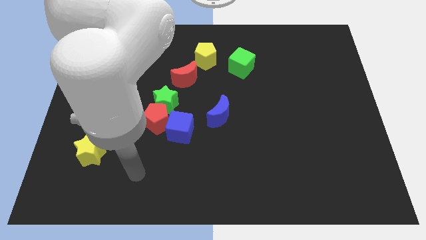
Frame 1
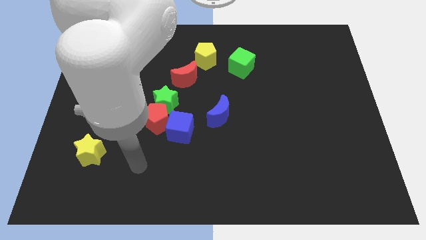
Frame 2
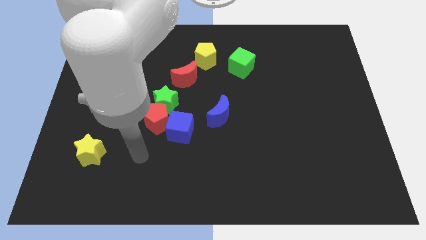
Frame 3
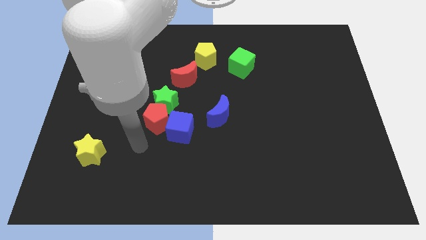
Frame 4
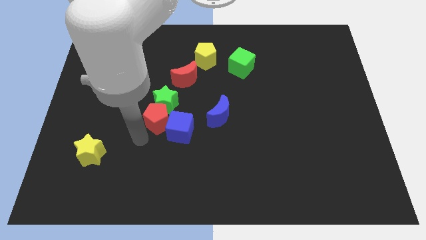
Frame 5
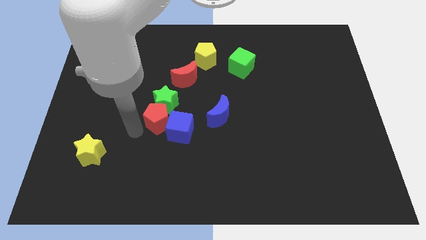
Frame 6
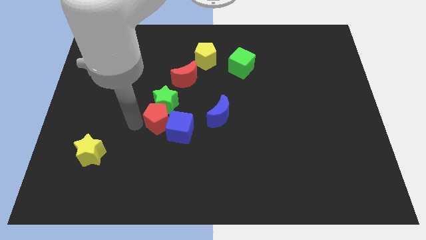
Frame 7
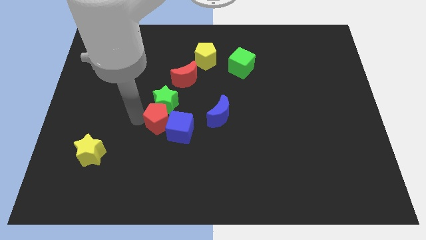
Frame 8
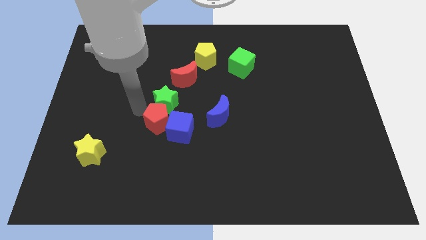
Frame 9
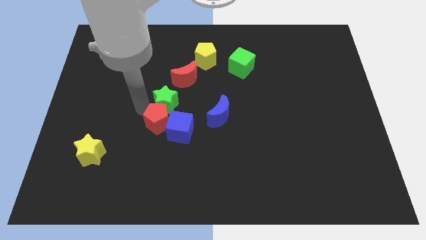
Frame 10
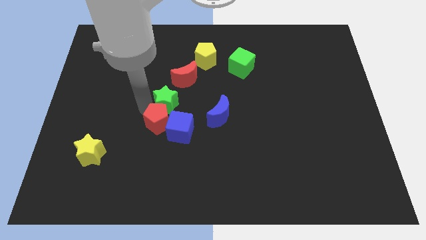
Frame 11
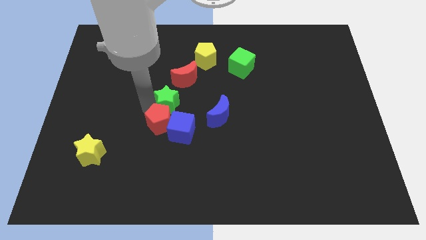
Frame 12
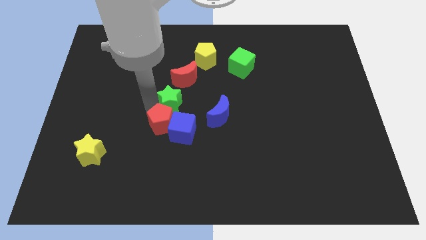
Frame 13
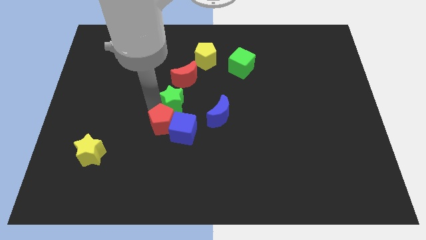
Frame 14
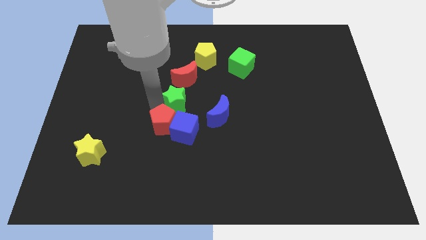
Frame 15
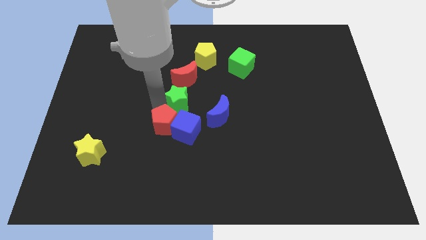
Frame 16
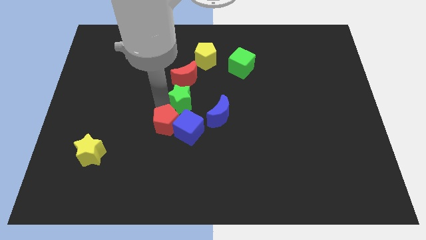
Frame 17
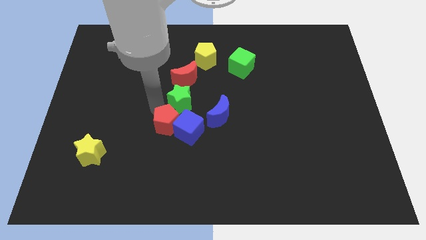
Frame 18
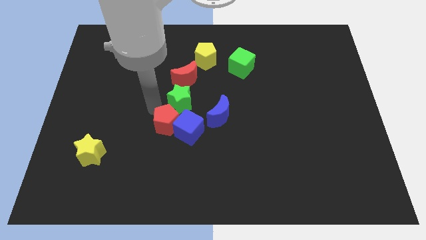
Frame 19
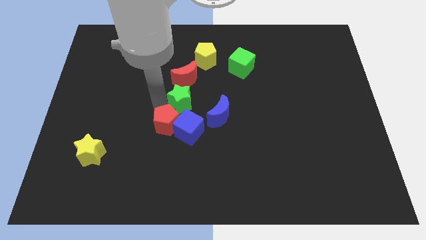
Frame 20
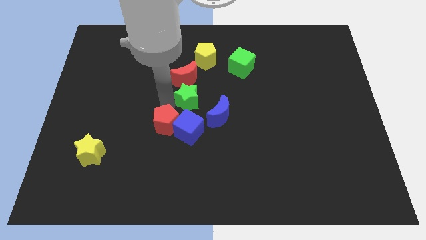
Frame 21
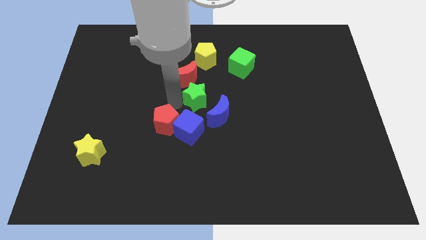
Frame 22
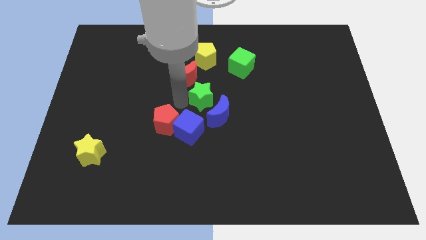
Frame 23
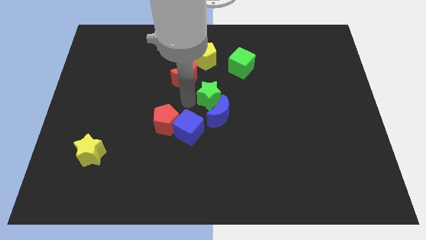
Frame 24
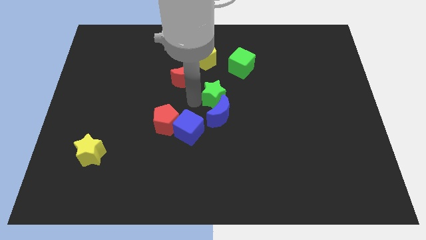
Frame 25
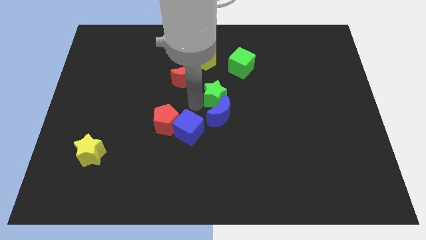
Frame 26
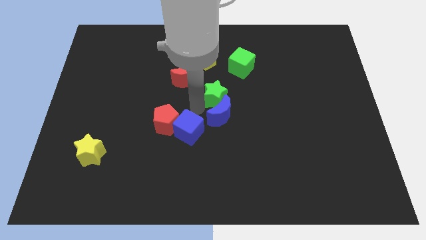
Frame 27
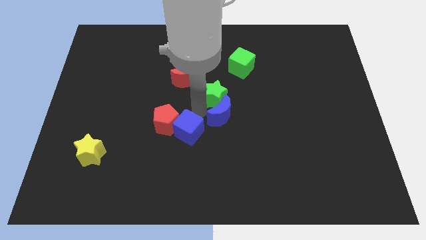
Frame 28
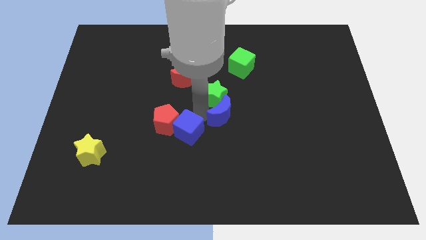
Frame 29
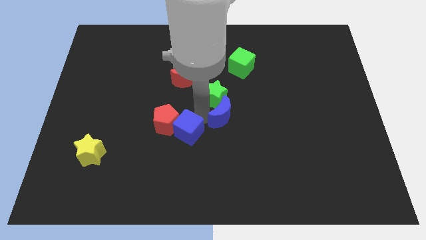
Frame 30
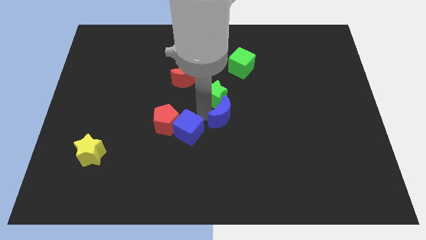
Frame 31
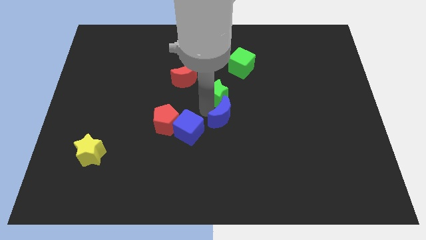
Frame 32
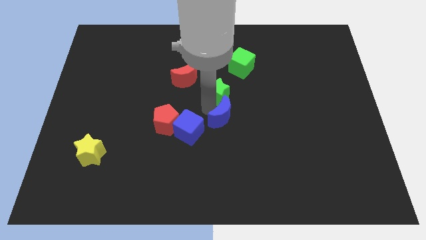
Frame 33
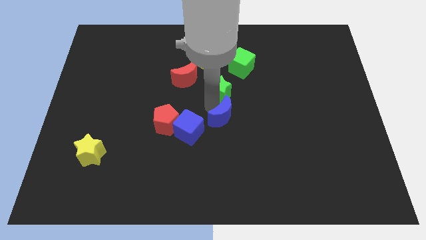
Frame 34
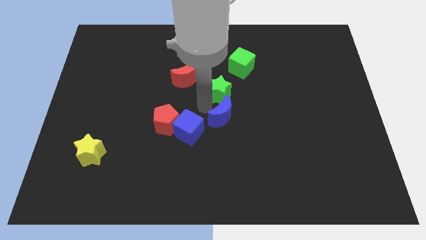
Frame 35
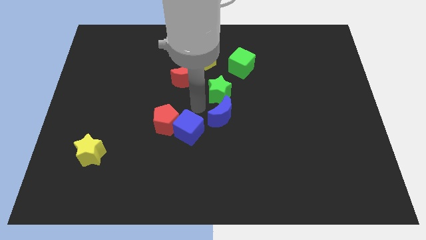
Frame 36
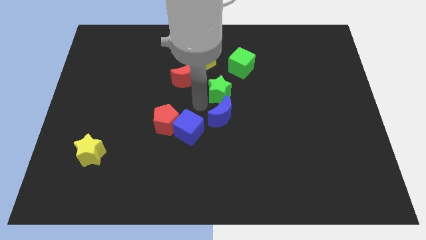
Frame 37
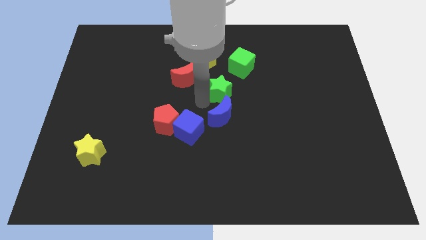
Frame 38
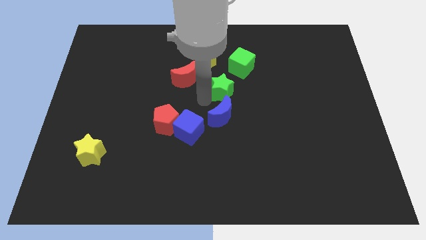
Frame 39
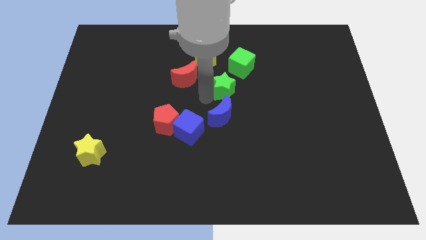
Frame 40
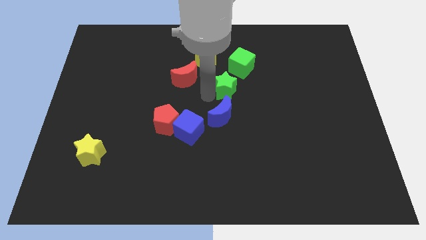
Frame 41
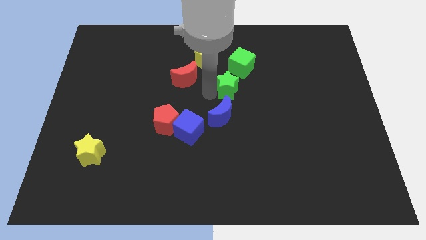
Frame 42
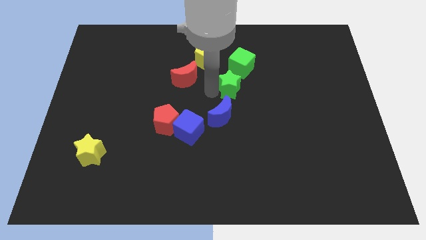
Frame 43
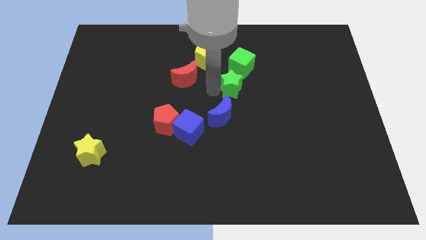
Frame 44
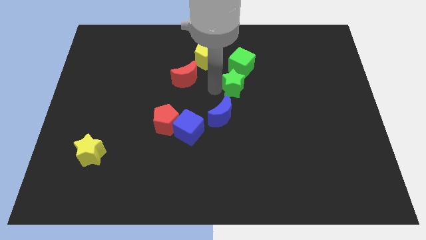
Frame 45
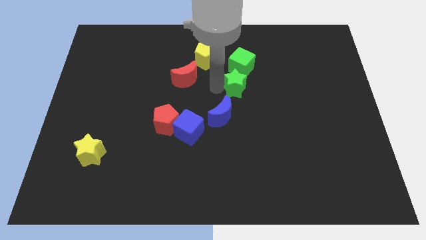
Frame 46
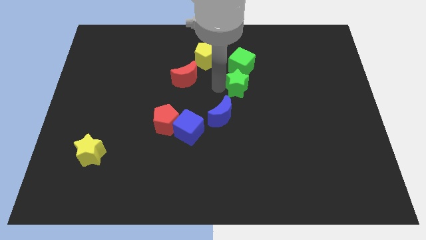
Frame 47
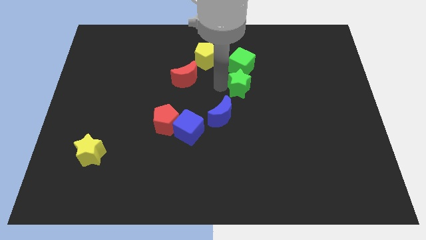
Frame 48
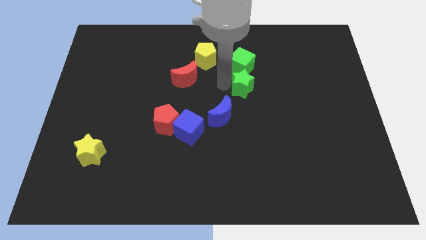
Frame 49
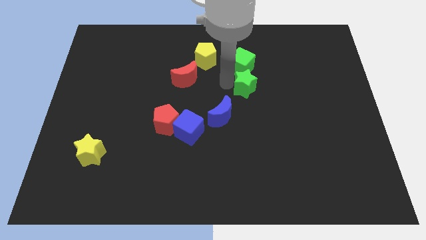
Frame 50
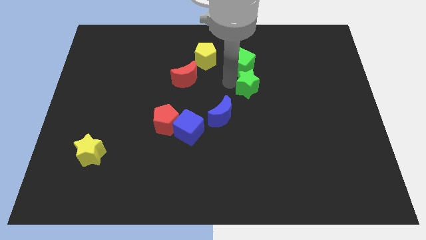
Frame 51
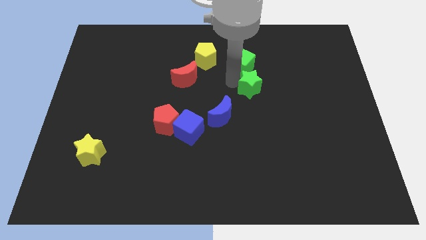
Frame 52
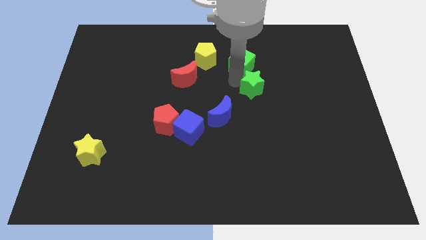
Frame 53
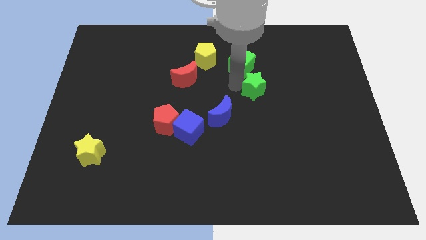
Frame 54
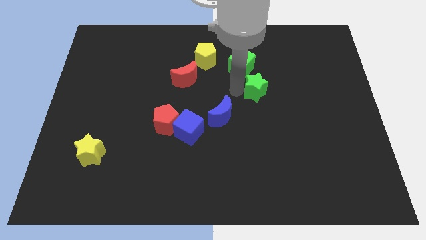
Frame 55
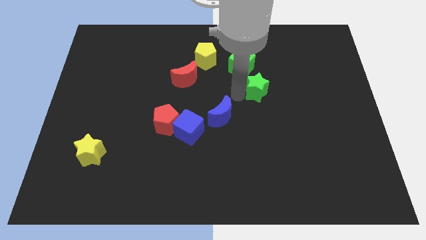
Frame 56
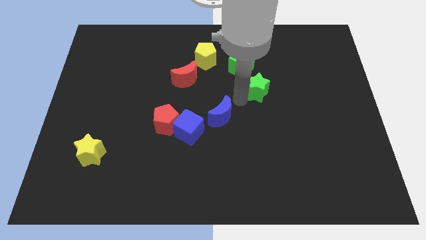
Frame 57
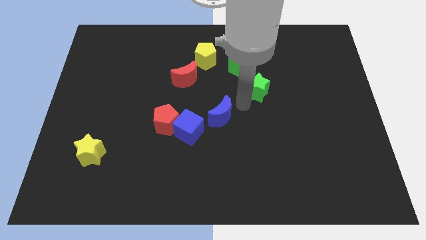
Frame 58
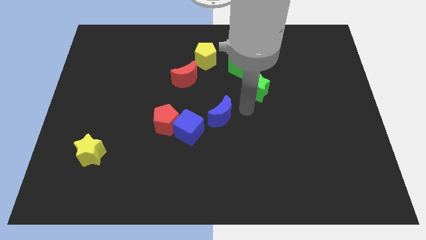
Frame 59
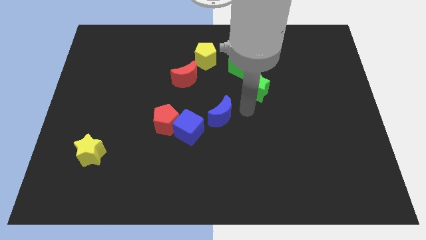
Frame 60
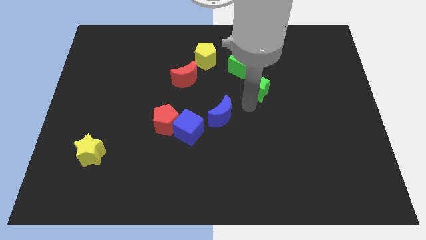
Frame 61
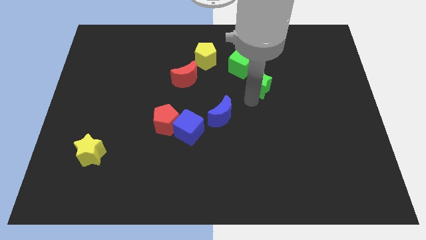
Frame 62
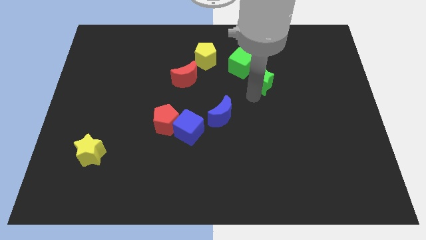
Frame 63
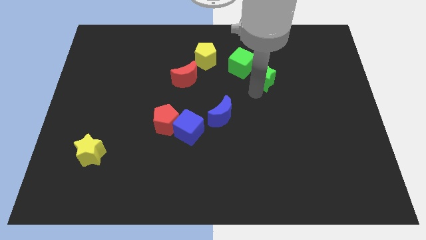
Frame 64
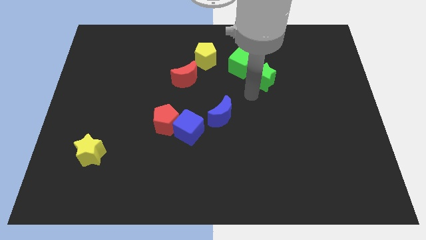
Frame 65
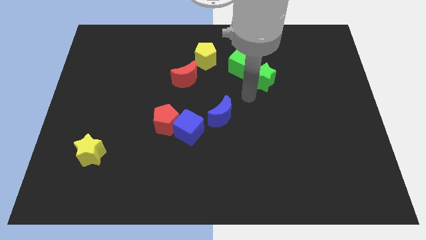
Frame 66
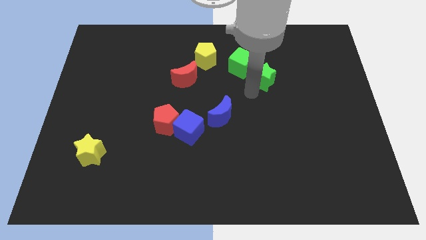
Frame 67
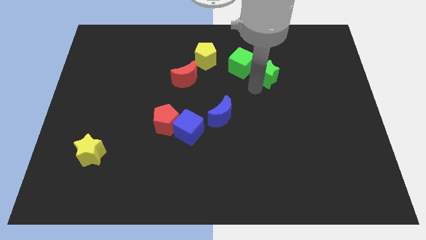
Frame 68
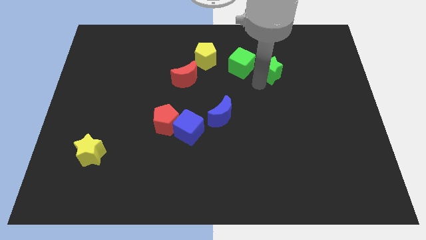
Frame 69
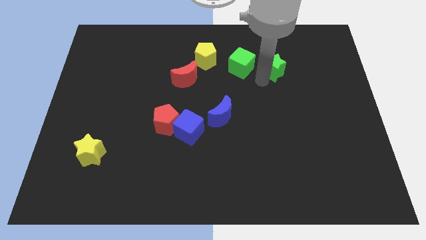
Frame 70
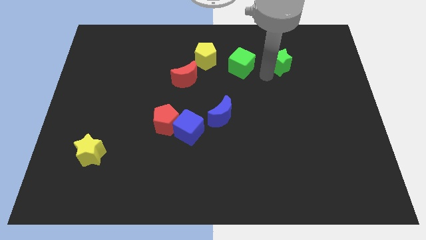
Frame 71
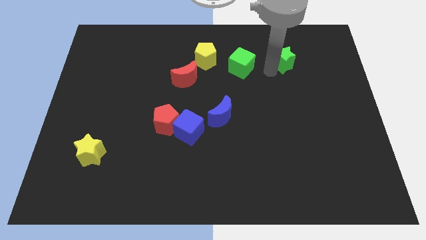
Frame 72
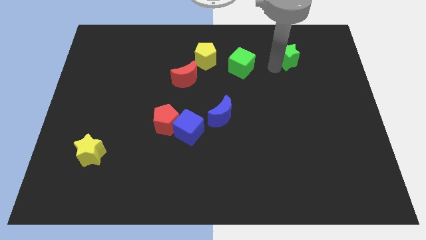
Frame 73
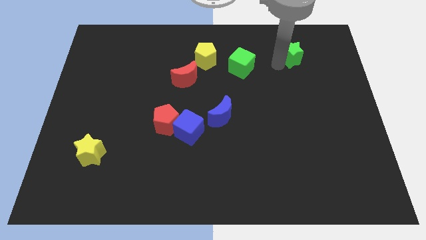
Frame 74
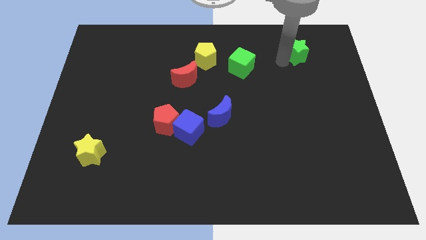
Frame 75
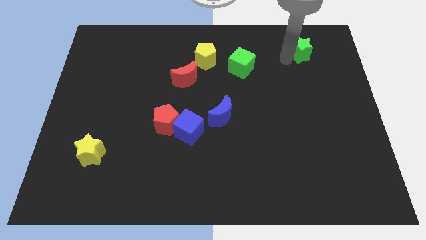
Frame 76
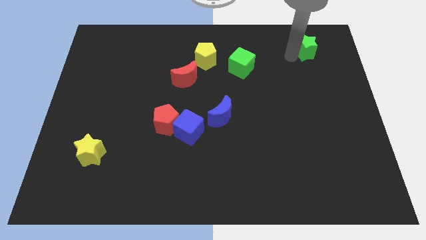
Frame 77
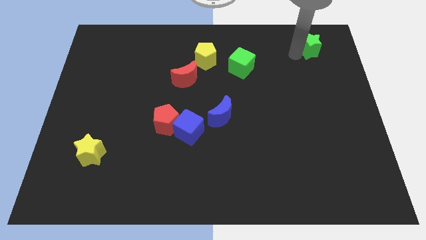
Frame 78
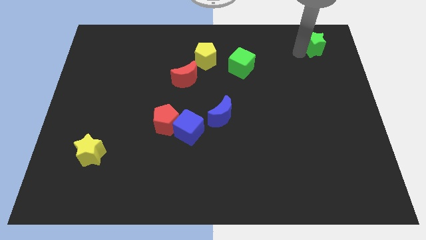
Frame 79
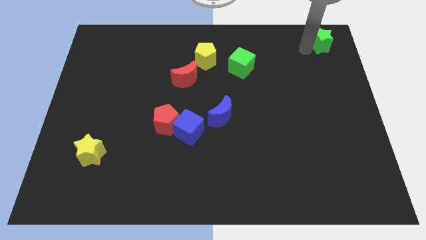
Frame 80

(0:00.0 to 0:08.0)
move the green star to the top right
